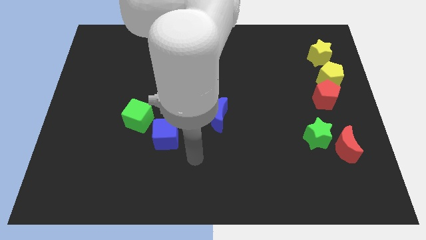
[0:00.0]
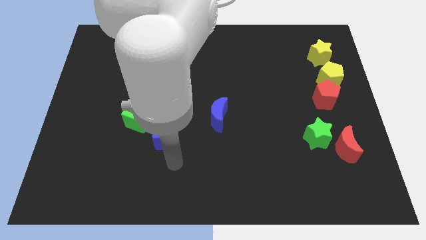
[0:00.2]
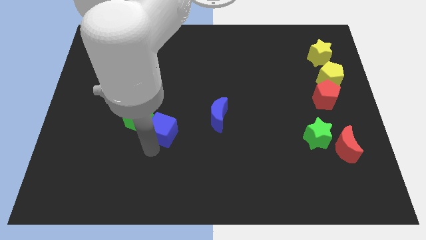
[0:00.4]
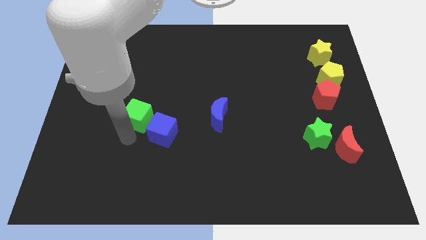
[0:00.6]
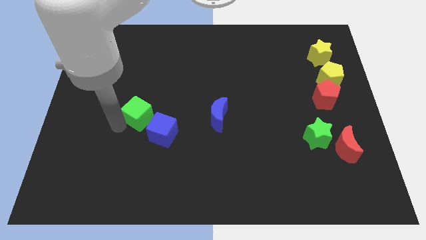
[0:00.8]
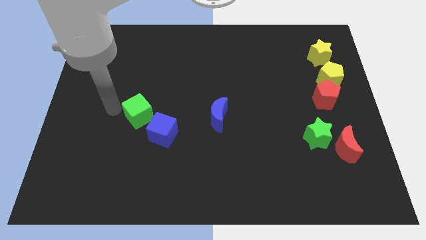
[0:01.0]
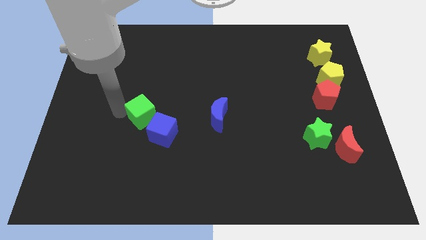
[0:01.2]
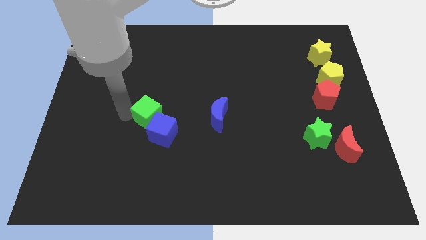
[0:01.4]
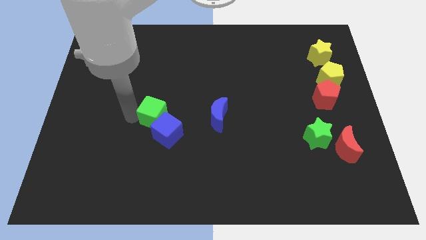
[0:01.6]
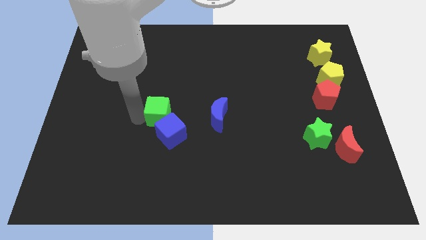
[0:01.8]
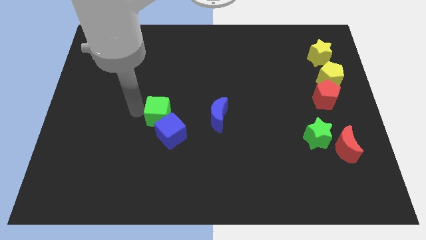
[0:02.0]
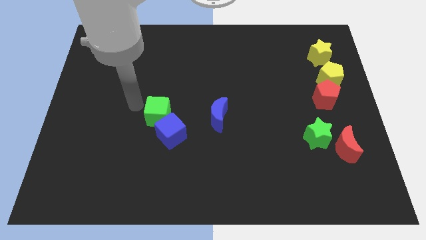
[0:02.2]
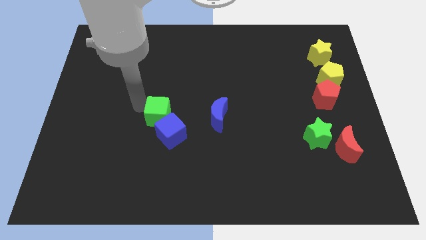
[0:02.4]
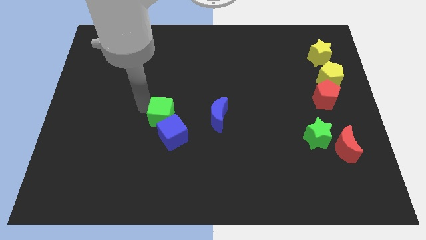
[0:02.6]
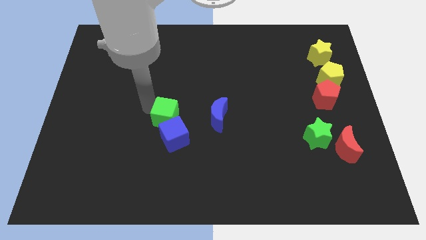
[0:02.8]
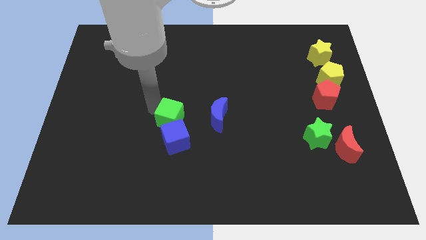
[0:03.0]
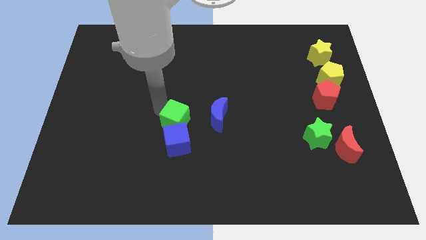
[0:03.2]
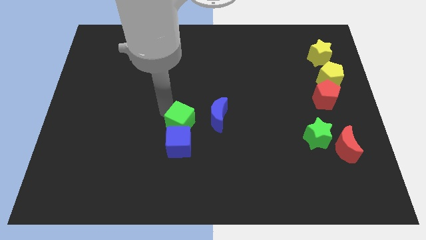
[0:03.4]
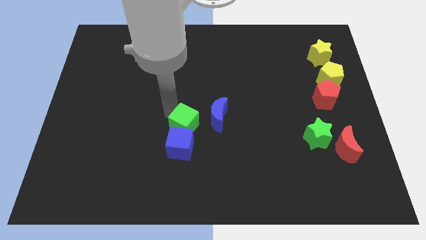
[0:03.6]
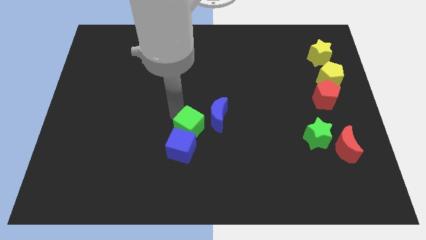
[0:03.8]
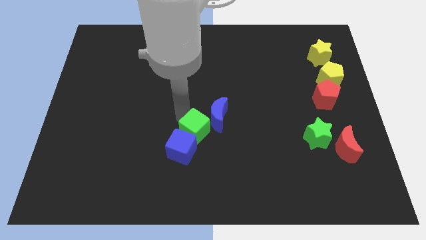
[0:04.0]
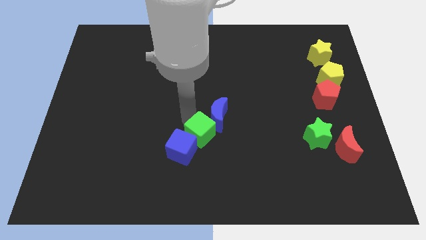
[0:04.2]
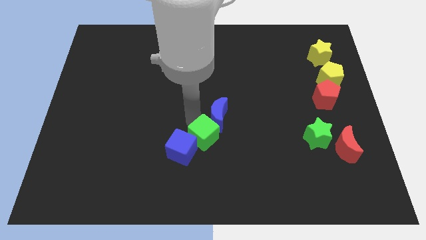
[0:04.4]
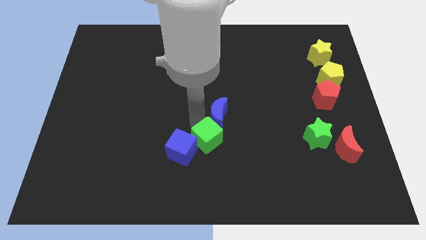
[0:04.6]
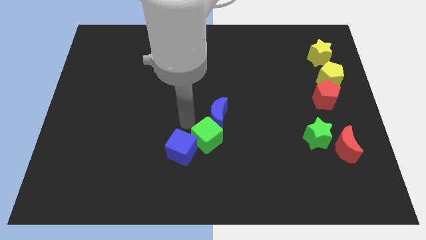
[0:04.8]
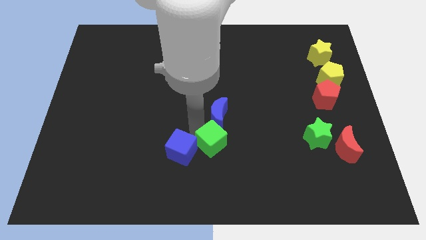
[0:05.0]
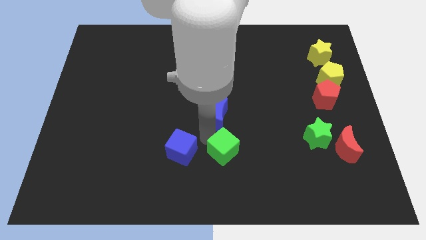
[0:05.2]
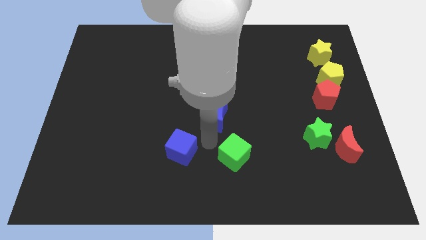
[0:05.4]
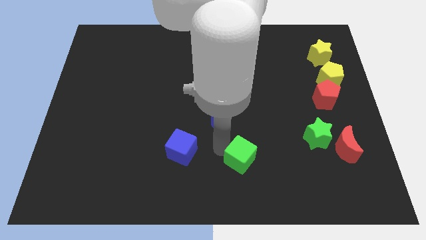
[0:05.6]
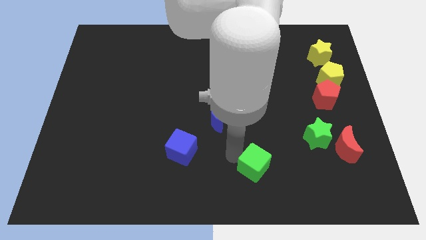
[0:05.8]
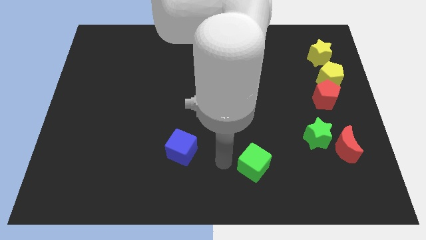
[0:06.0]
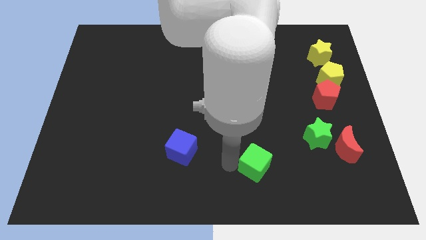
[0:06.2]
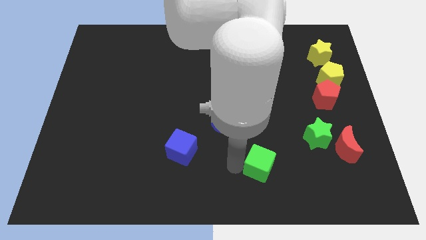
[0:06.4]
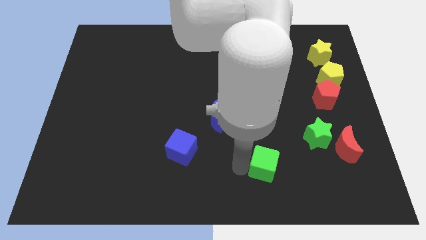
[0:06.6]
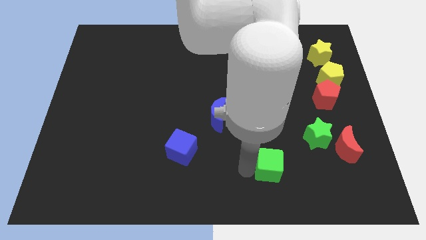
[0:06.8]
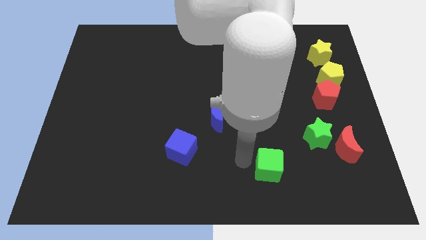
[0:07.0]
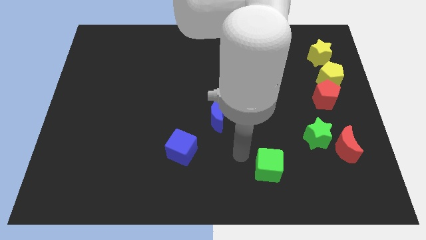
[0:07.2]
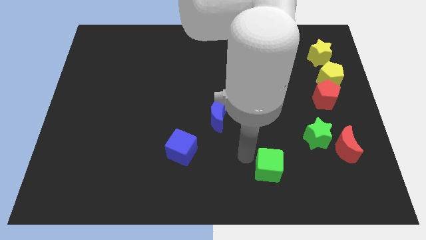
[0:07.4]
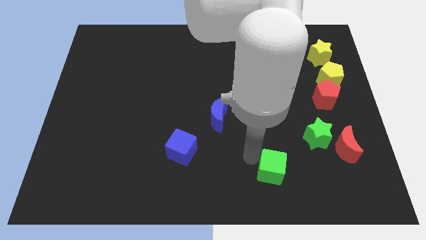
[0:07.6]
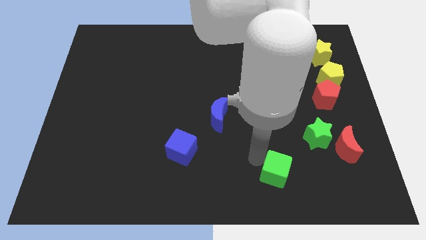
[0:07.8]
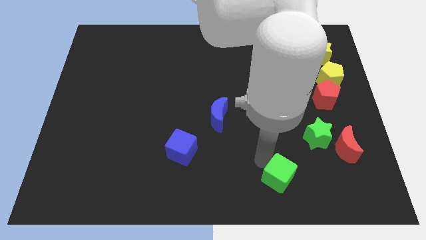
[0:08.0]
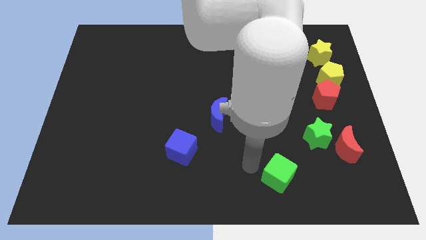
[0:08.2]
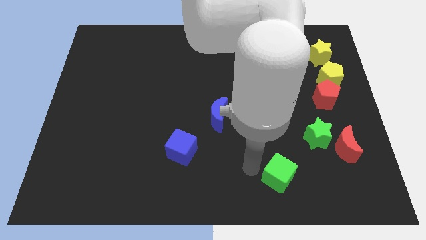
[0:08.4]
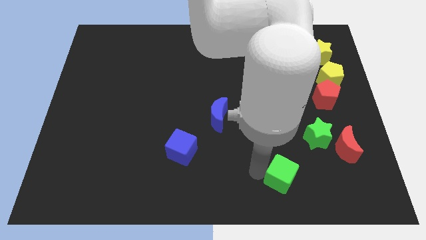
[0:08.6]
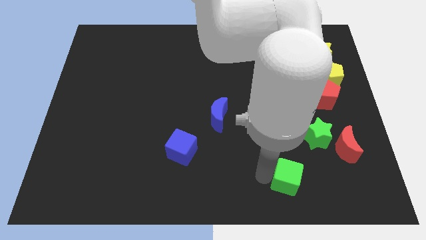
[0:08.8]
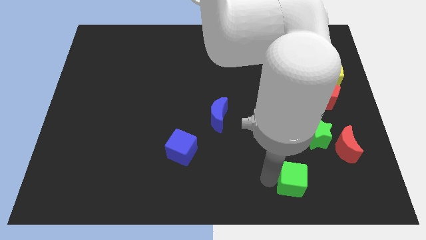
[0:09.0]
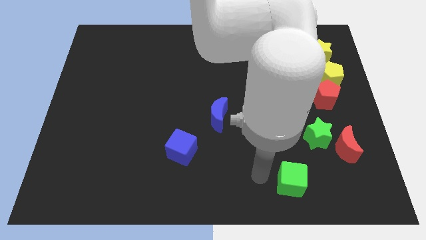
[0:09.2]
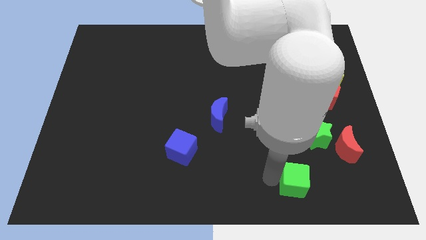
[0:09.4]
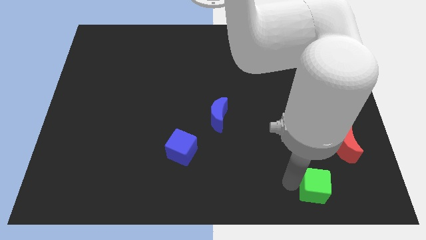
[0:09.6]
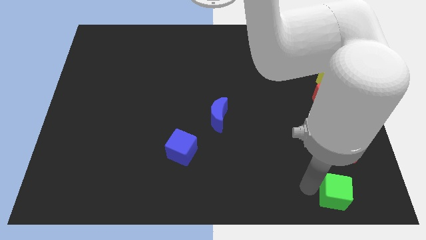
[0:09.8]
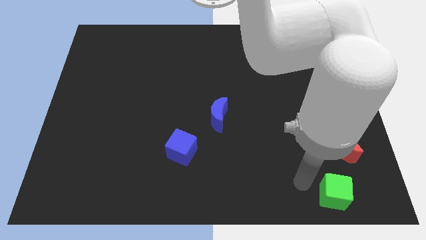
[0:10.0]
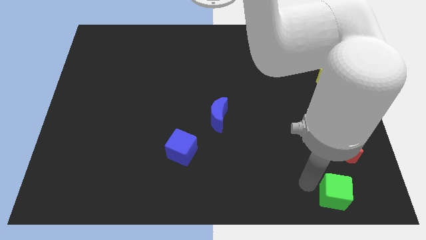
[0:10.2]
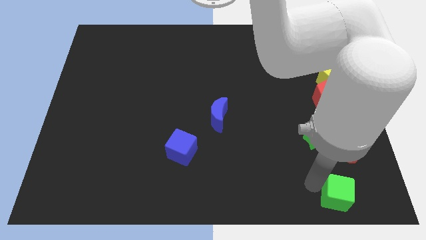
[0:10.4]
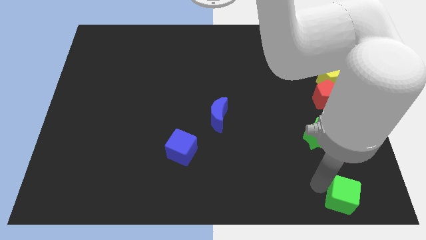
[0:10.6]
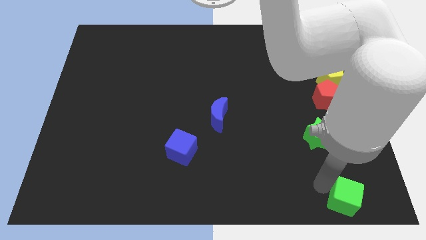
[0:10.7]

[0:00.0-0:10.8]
push the green cube to the bottom right of the board

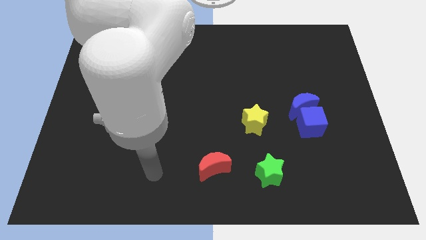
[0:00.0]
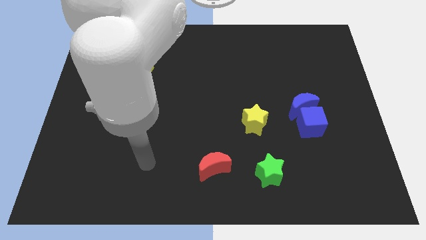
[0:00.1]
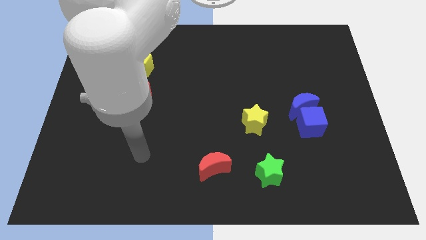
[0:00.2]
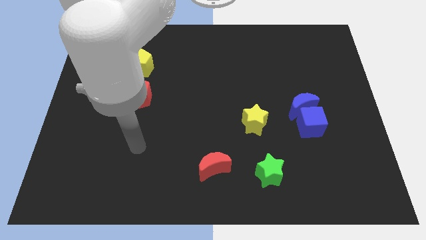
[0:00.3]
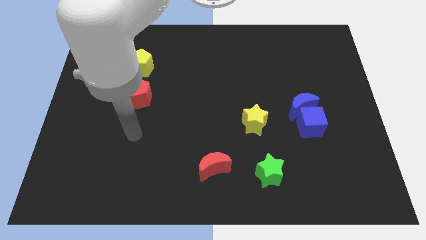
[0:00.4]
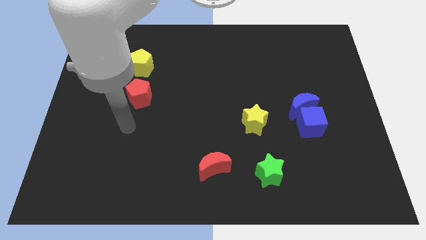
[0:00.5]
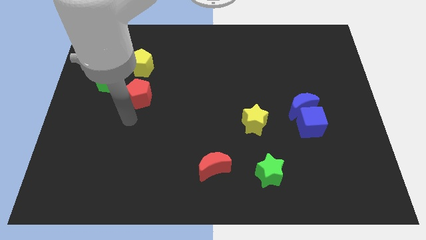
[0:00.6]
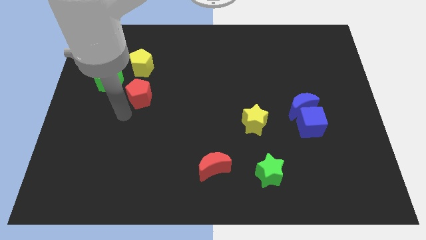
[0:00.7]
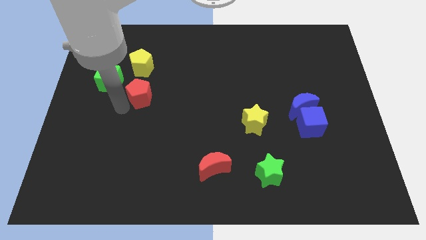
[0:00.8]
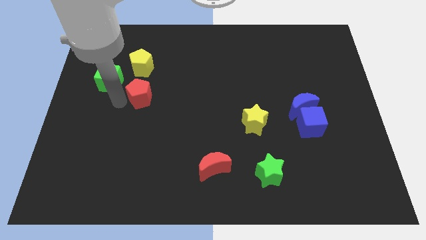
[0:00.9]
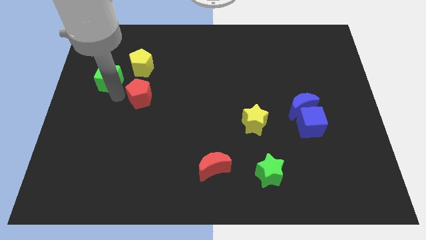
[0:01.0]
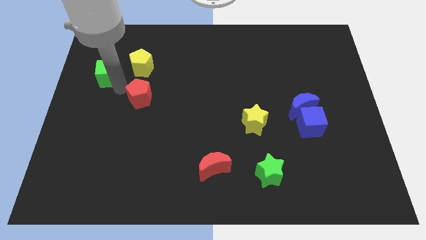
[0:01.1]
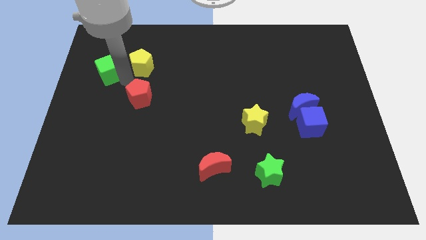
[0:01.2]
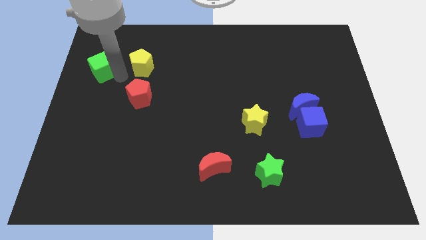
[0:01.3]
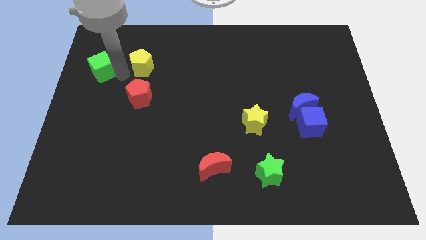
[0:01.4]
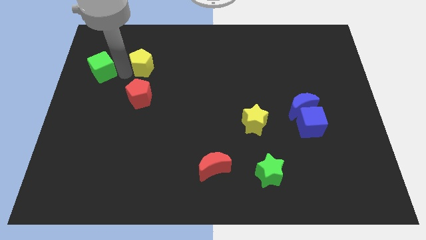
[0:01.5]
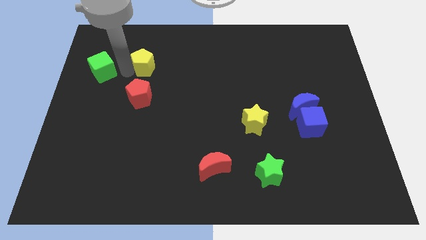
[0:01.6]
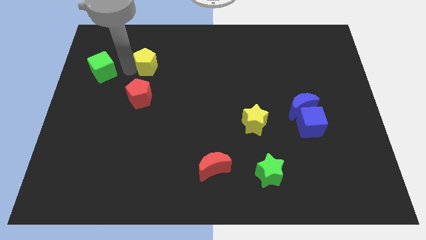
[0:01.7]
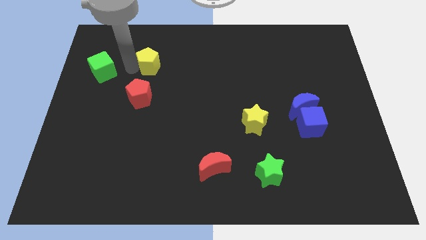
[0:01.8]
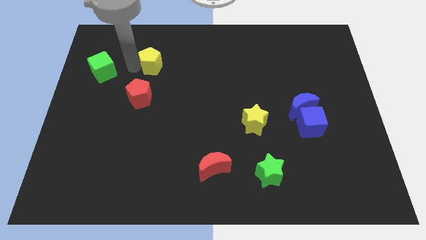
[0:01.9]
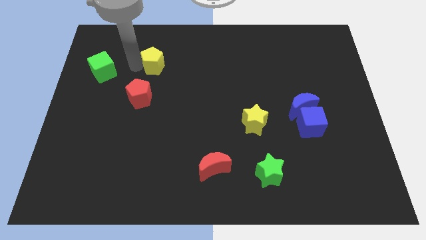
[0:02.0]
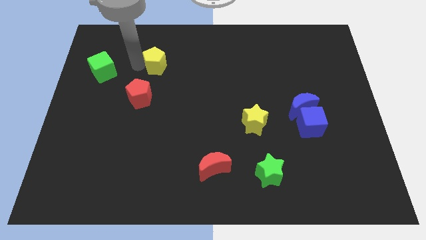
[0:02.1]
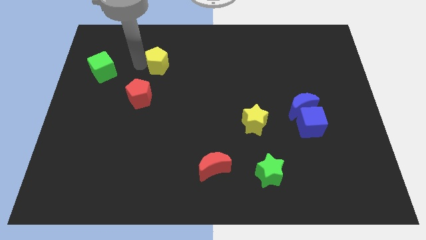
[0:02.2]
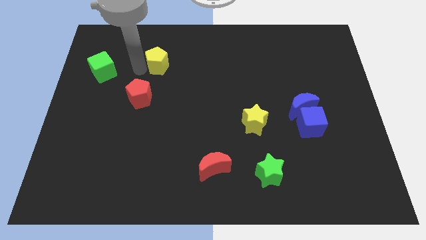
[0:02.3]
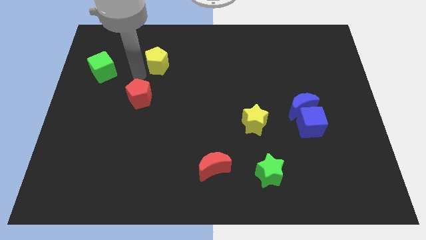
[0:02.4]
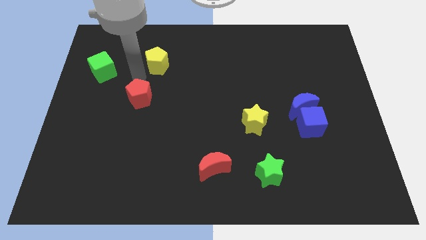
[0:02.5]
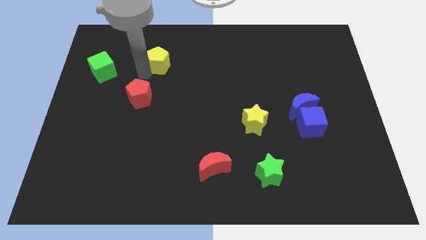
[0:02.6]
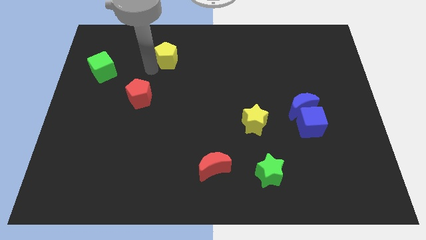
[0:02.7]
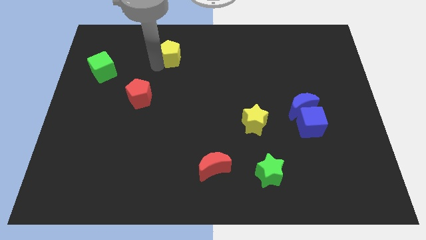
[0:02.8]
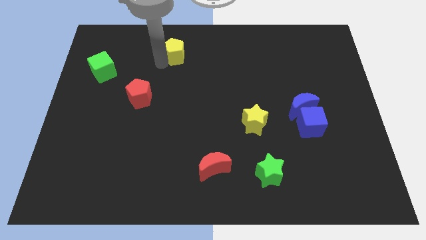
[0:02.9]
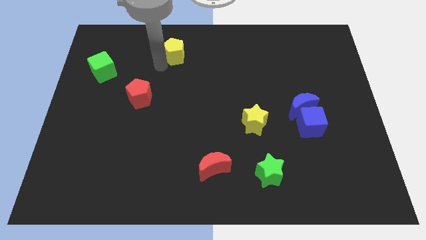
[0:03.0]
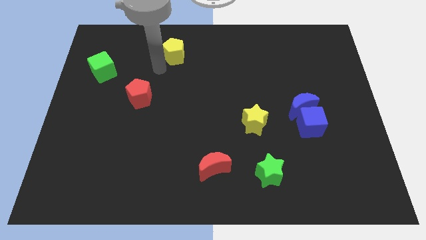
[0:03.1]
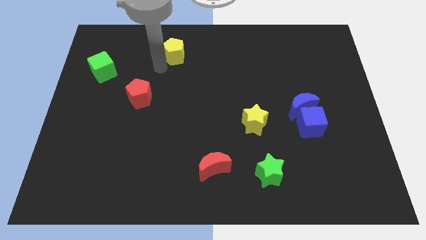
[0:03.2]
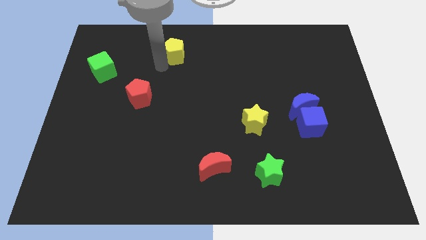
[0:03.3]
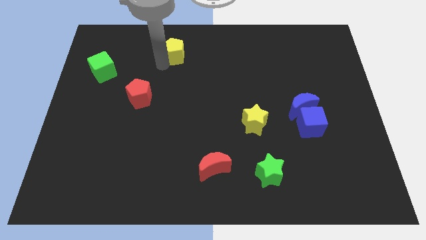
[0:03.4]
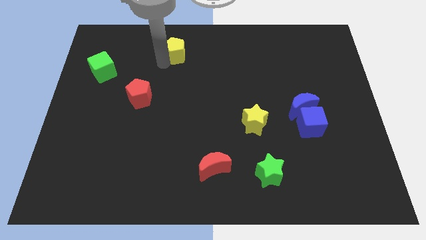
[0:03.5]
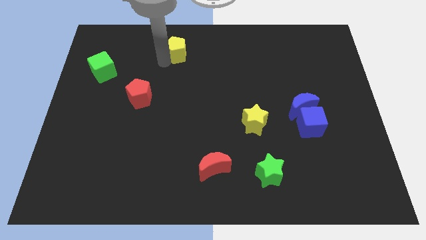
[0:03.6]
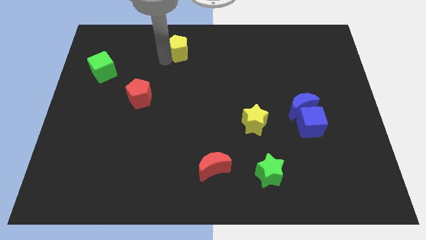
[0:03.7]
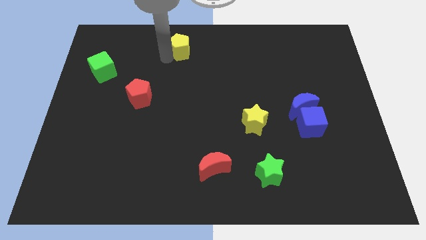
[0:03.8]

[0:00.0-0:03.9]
slide the yellow pentagon to the top side
